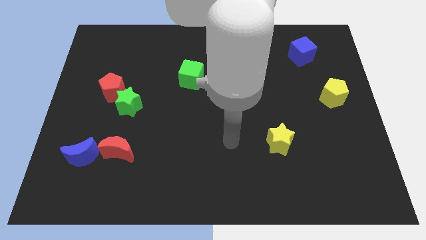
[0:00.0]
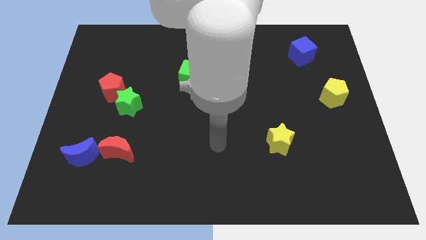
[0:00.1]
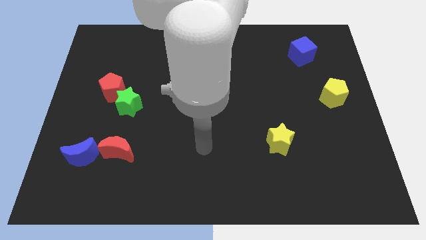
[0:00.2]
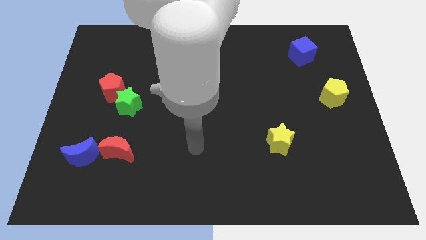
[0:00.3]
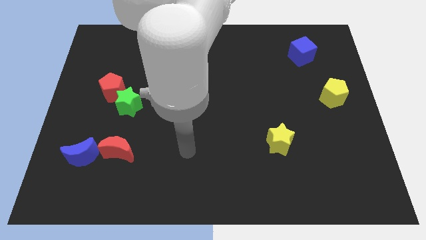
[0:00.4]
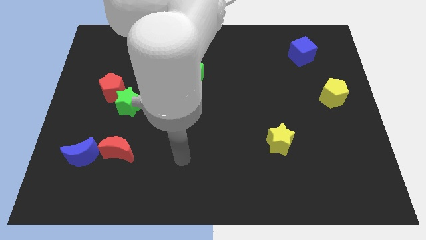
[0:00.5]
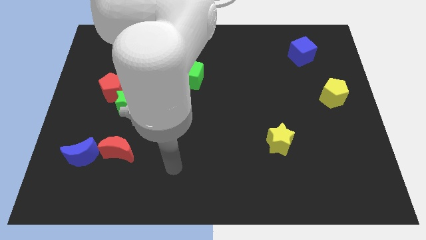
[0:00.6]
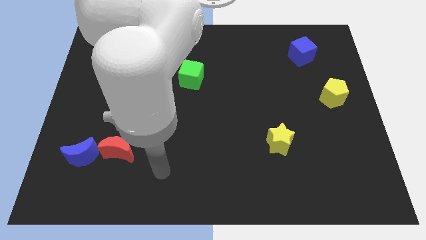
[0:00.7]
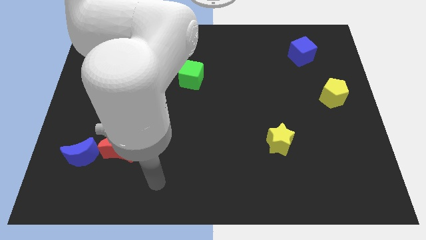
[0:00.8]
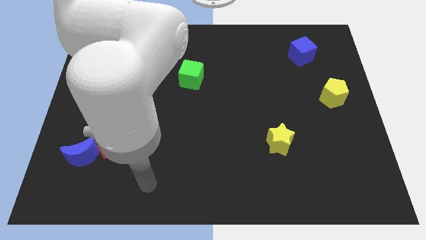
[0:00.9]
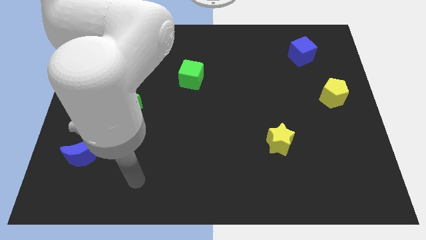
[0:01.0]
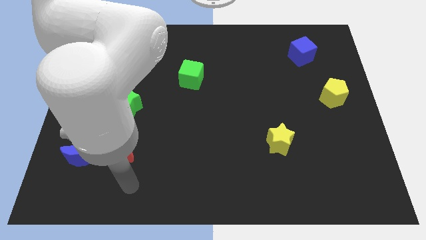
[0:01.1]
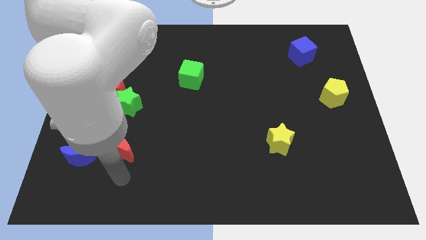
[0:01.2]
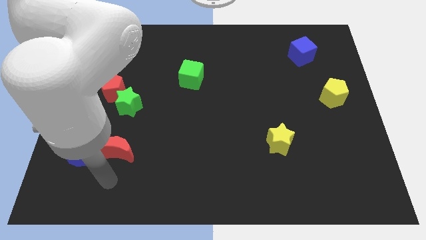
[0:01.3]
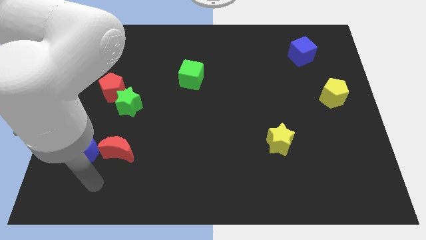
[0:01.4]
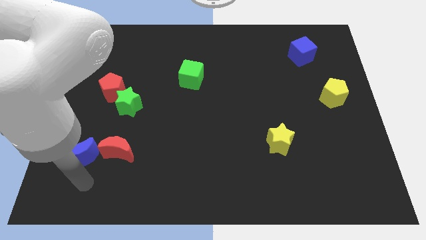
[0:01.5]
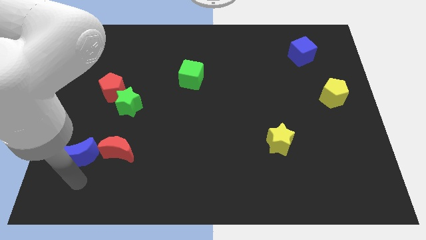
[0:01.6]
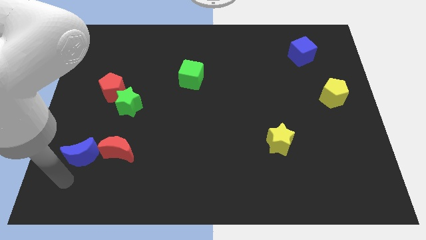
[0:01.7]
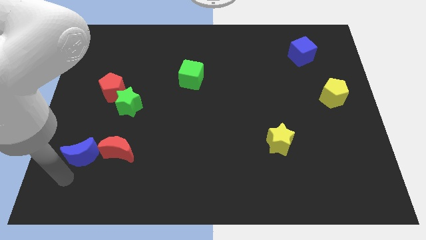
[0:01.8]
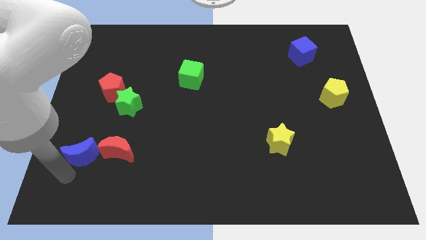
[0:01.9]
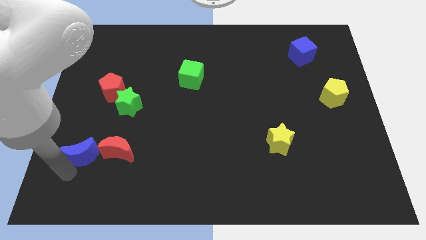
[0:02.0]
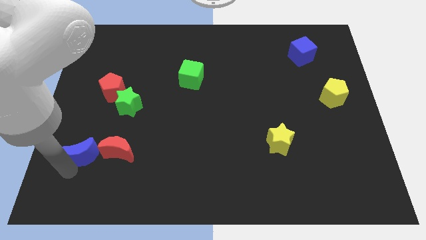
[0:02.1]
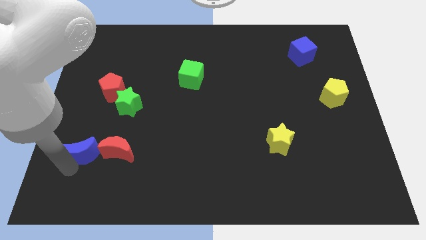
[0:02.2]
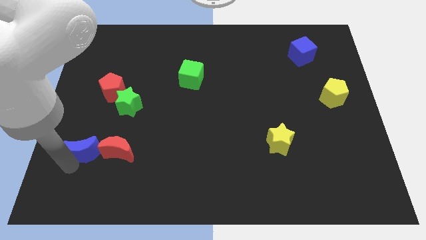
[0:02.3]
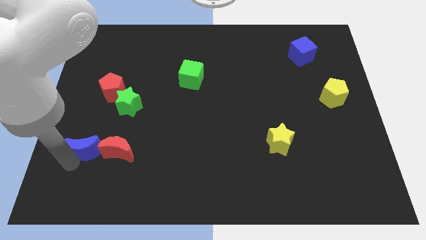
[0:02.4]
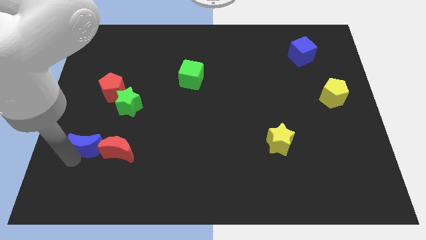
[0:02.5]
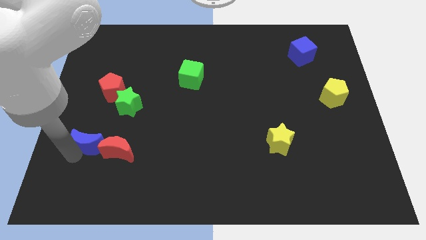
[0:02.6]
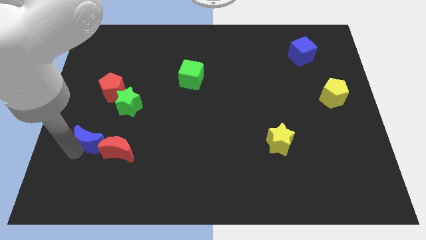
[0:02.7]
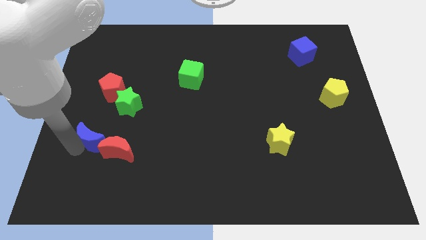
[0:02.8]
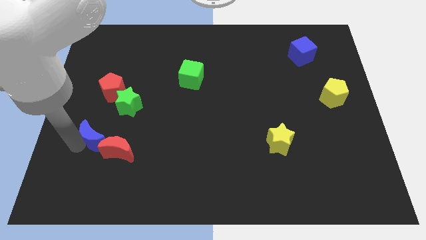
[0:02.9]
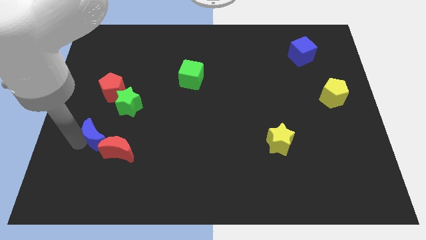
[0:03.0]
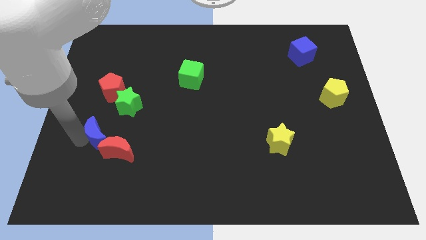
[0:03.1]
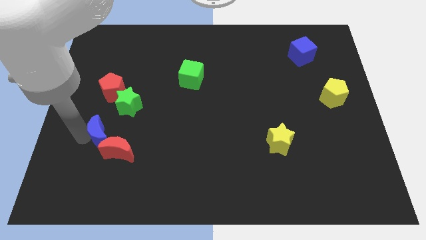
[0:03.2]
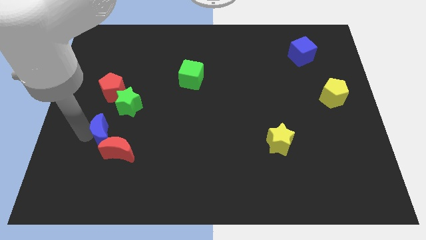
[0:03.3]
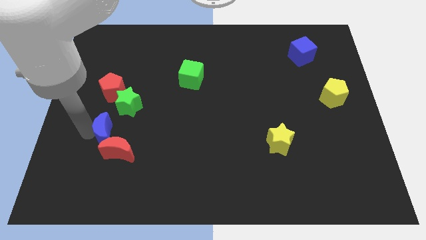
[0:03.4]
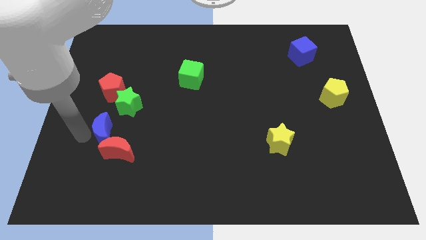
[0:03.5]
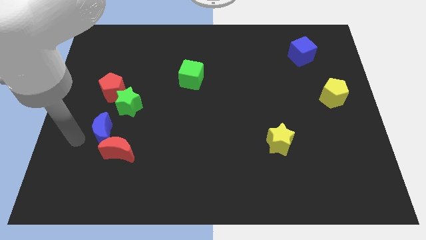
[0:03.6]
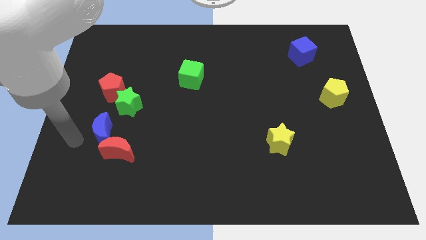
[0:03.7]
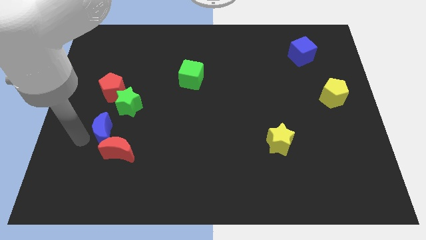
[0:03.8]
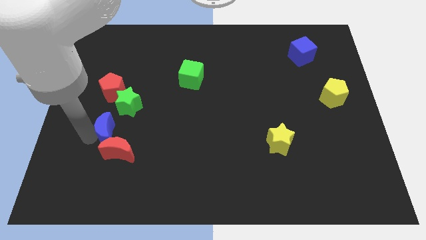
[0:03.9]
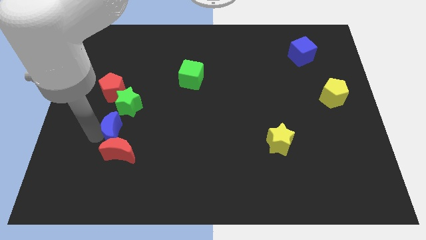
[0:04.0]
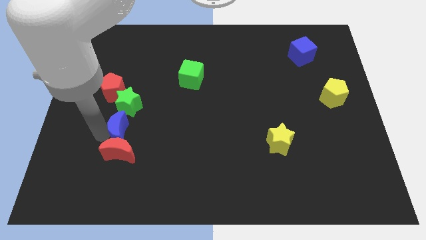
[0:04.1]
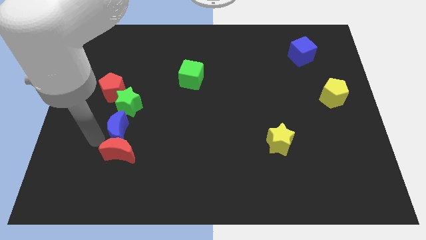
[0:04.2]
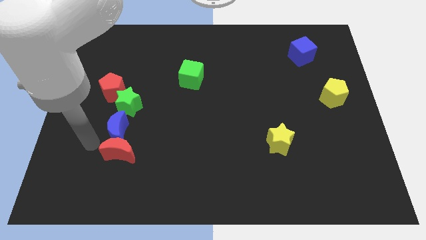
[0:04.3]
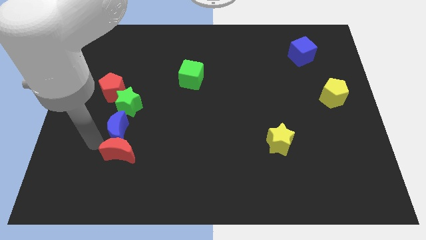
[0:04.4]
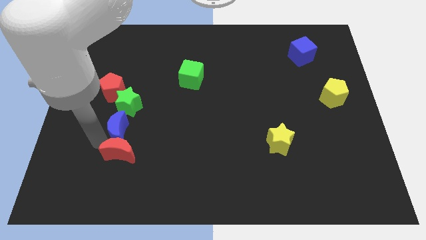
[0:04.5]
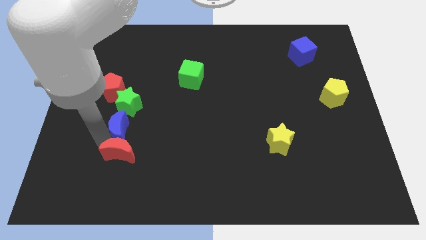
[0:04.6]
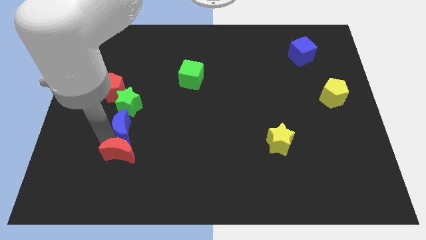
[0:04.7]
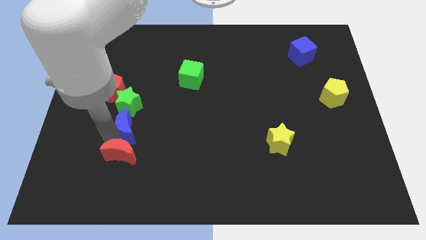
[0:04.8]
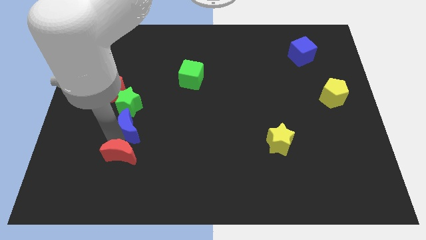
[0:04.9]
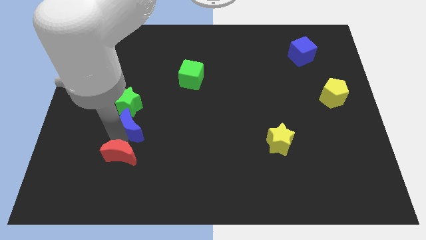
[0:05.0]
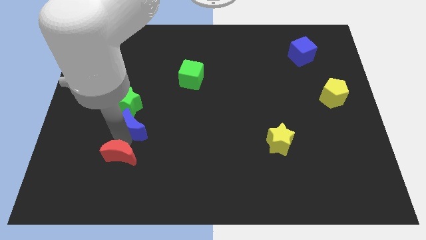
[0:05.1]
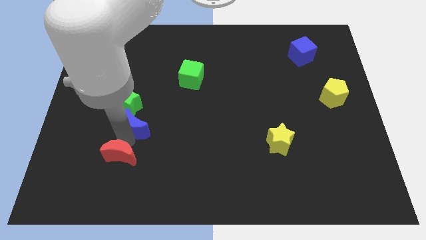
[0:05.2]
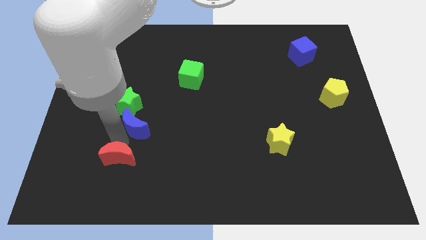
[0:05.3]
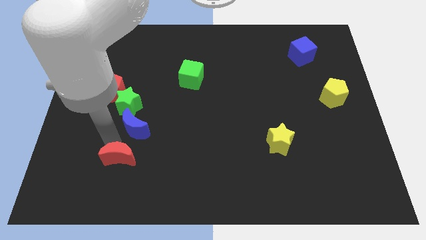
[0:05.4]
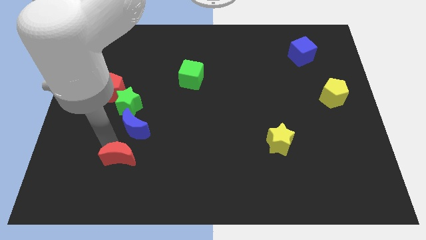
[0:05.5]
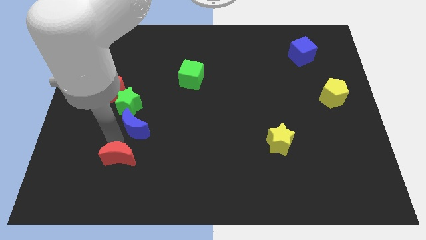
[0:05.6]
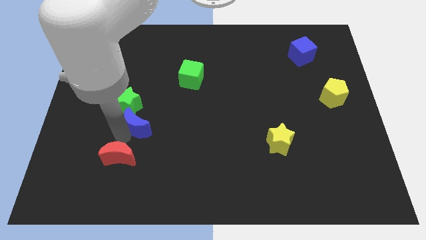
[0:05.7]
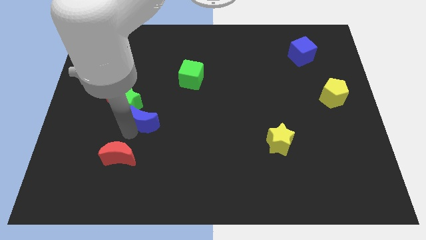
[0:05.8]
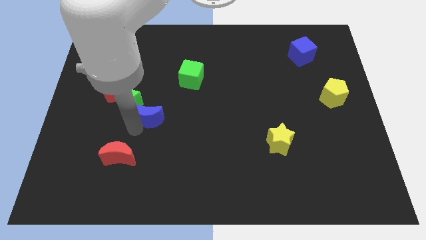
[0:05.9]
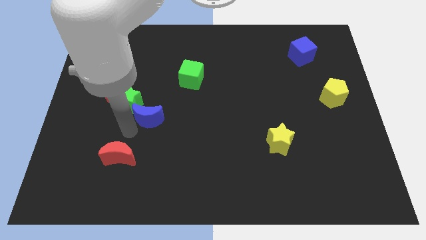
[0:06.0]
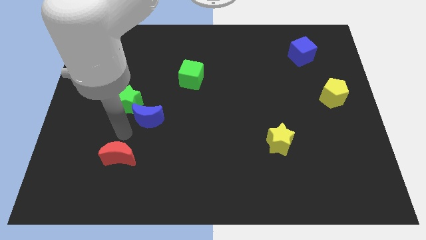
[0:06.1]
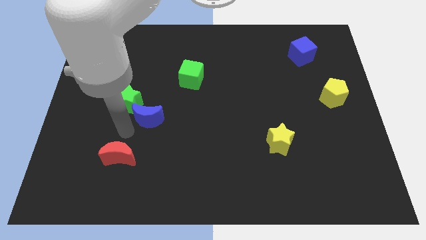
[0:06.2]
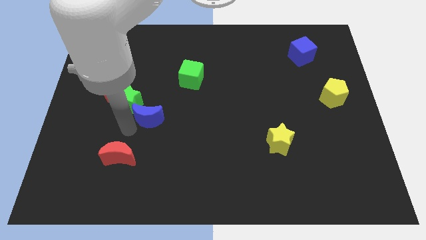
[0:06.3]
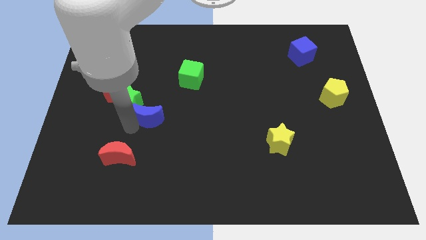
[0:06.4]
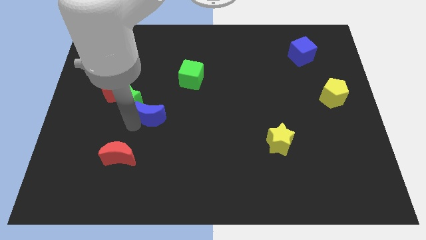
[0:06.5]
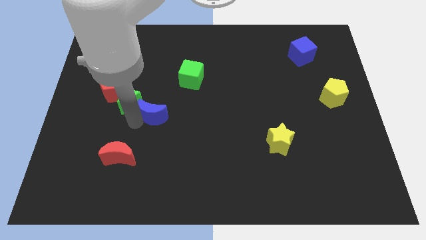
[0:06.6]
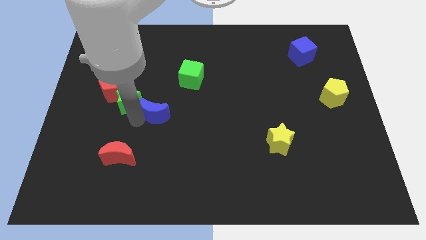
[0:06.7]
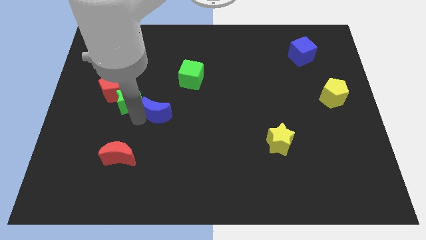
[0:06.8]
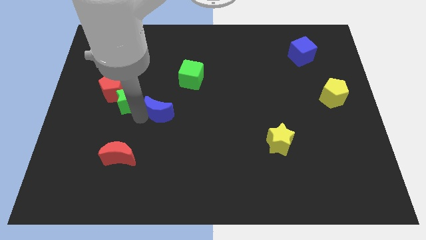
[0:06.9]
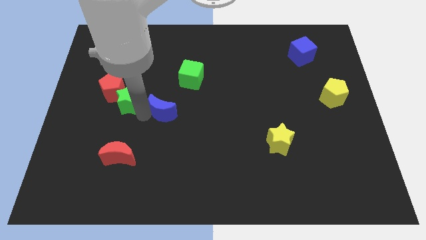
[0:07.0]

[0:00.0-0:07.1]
move the blue moon to the center
